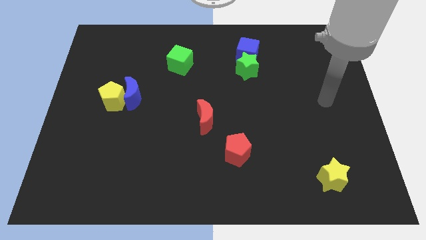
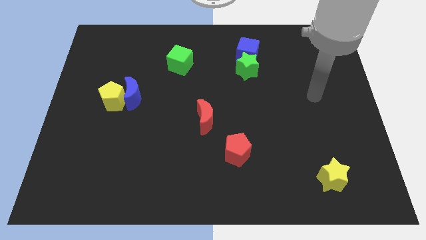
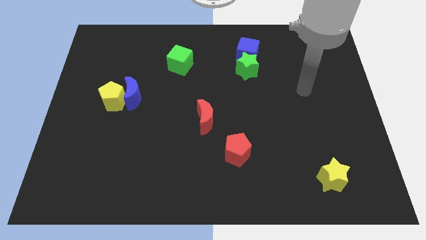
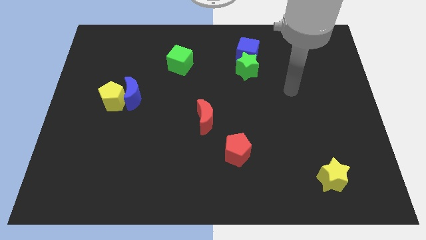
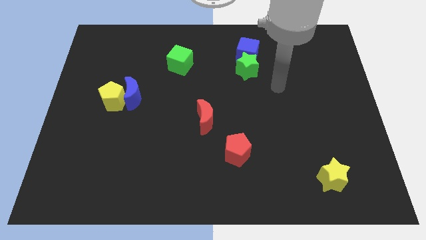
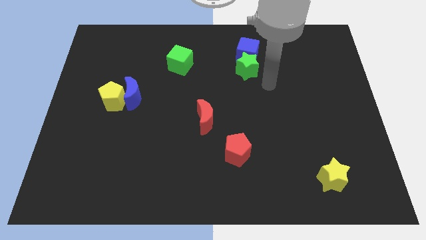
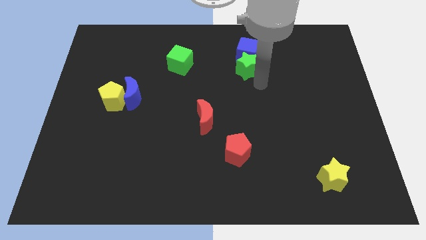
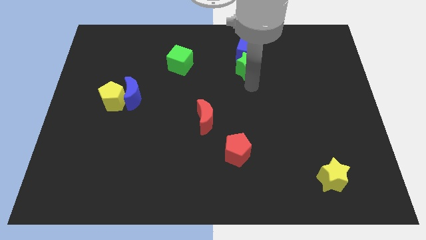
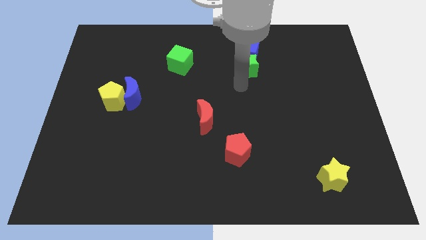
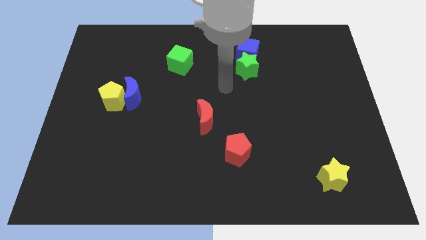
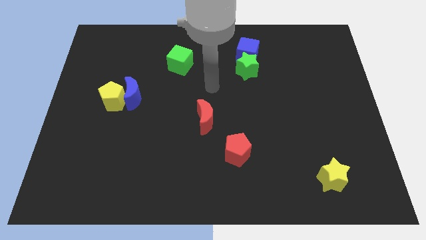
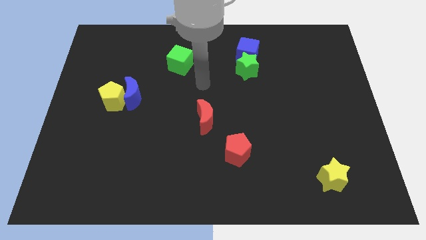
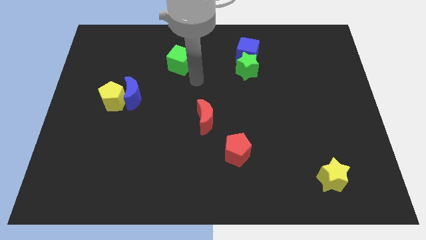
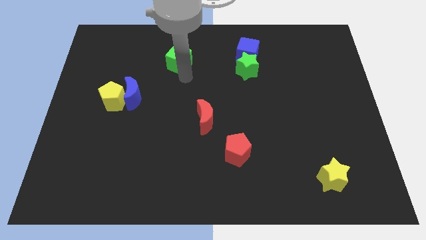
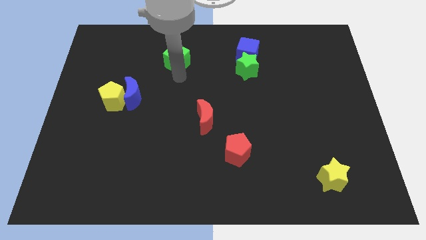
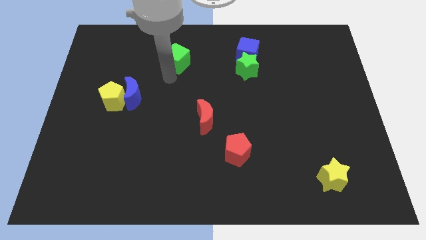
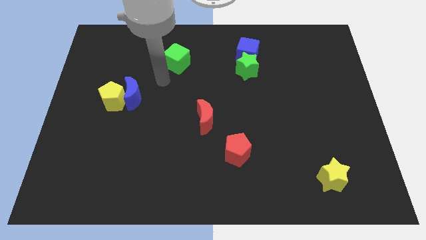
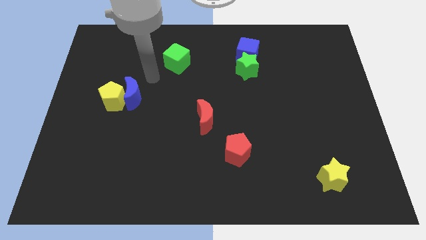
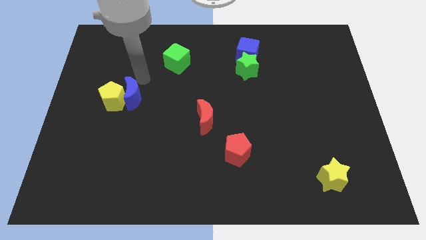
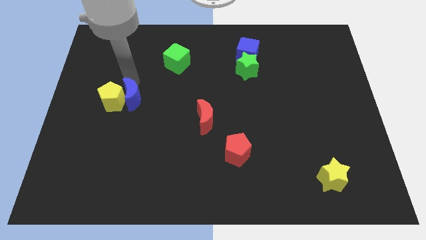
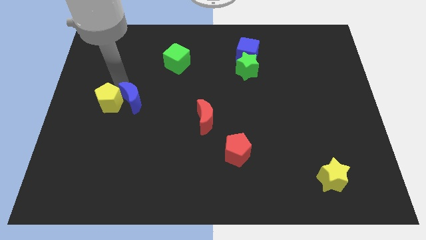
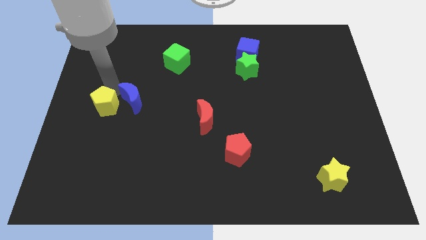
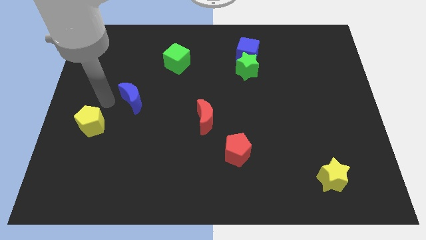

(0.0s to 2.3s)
pull the blue moon apart from the yellow pentagon

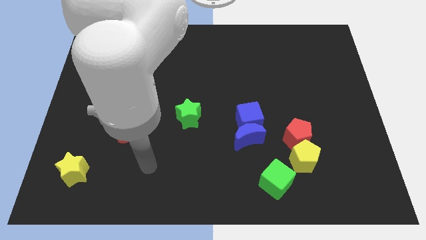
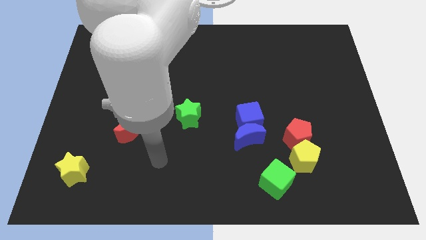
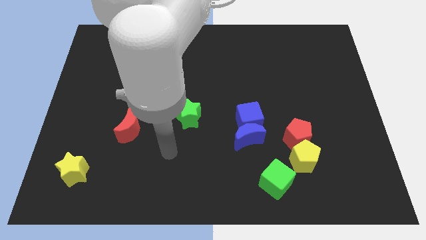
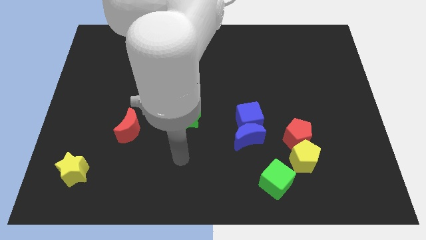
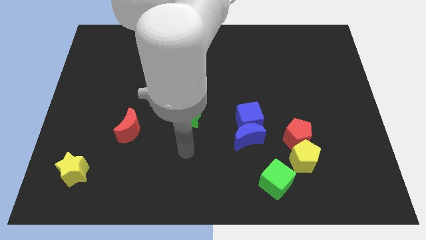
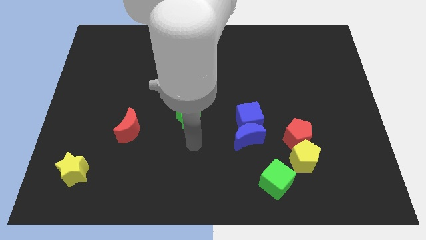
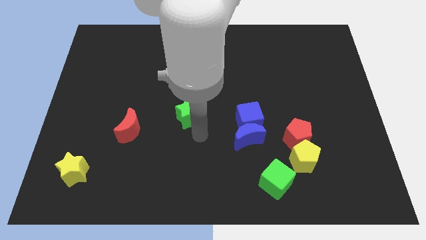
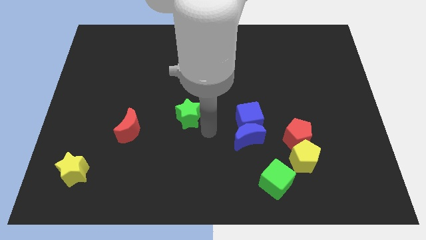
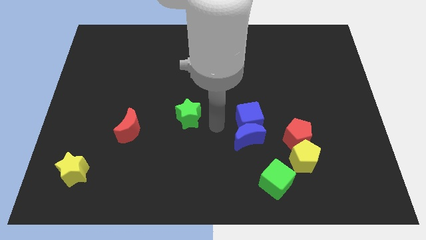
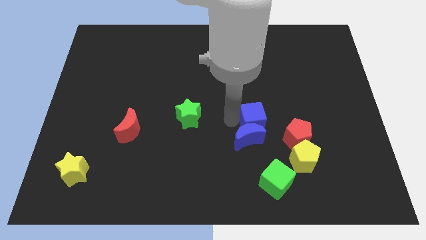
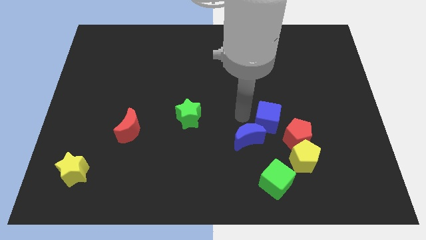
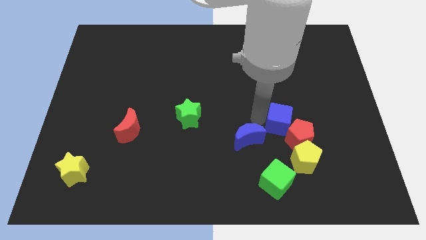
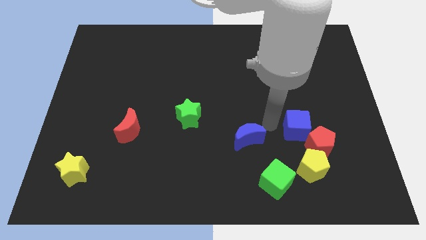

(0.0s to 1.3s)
separate the blue moon from the blue cube

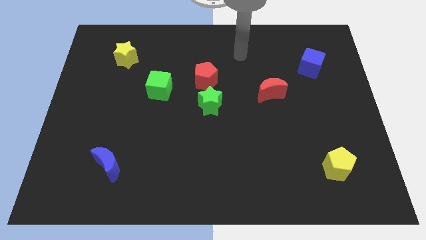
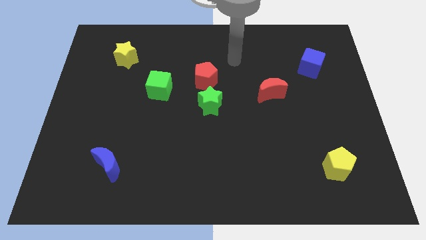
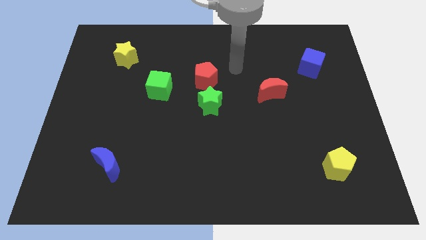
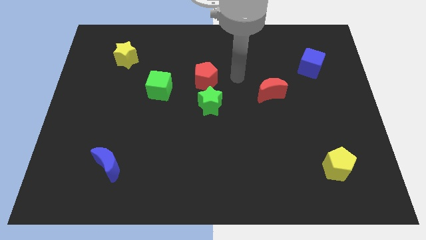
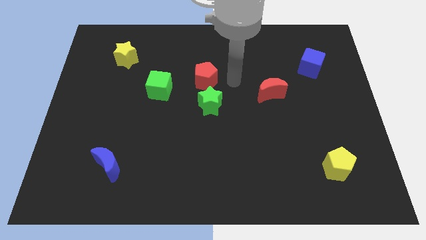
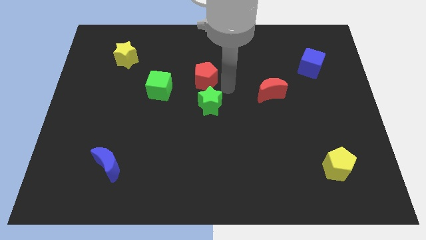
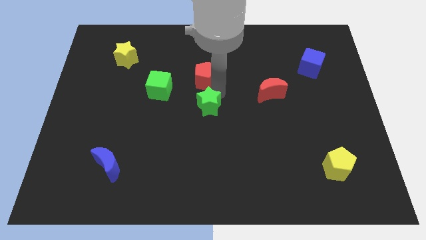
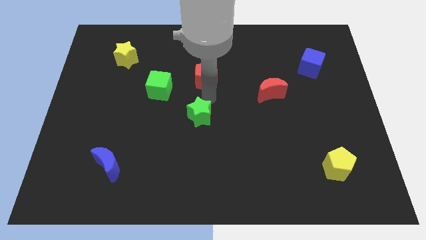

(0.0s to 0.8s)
separate the red pentagon from the green star

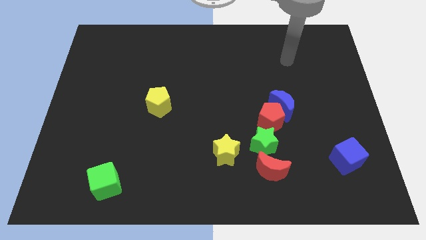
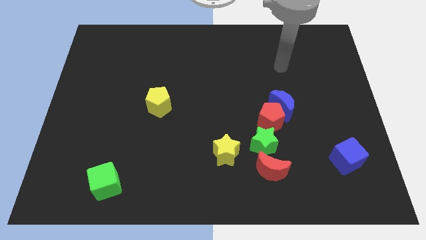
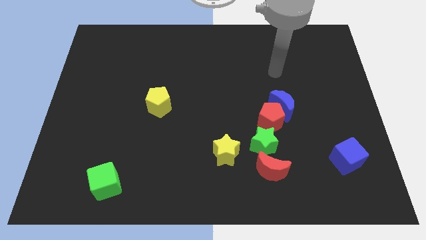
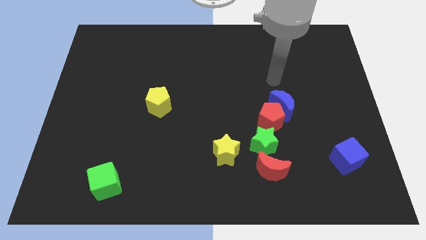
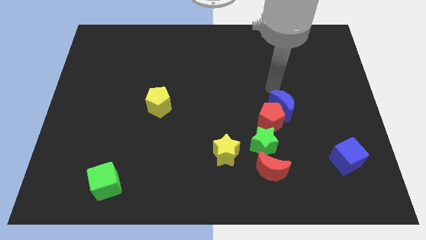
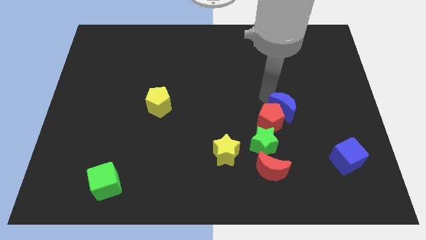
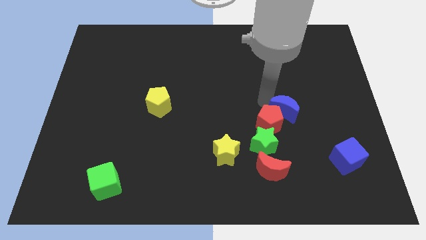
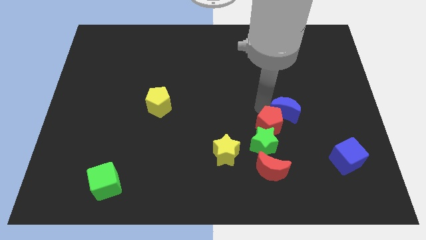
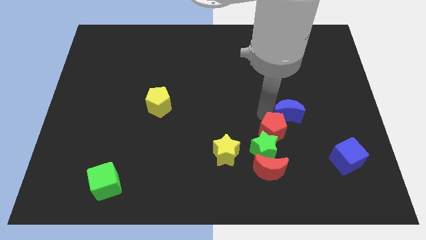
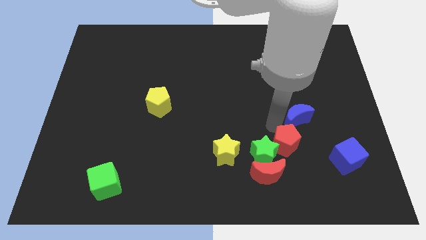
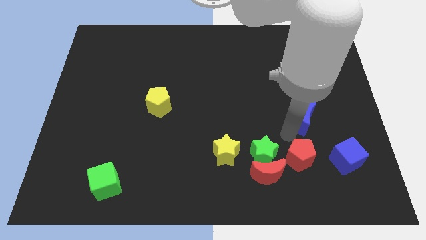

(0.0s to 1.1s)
move the blue moon away from the red pentagon

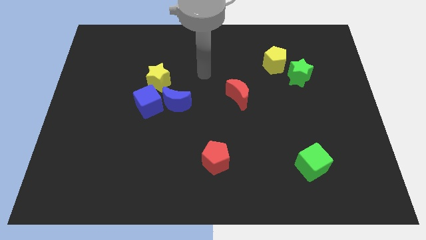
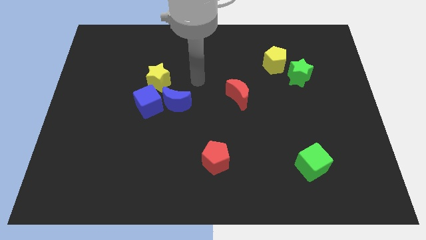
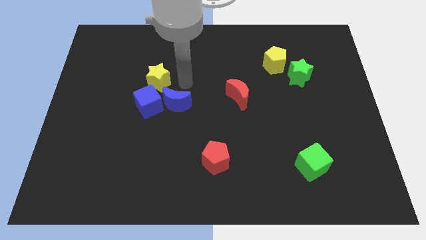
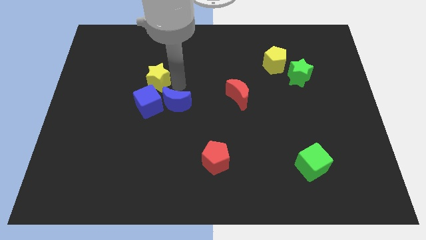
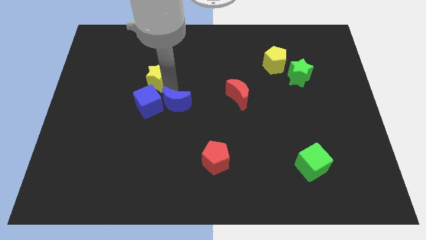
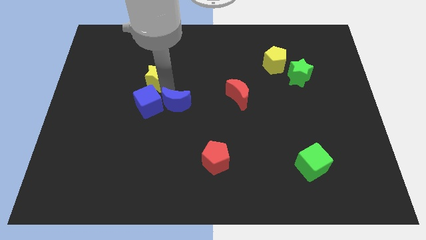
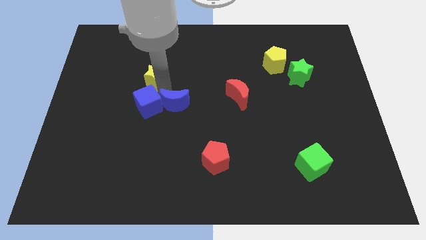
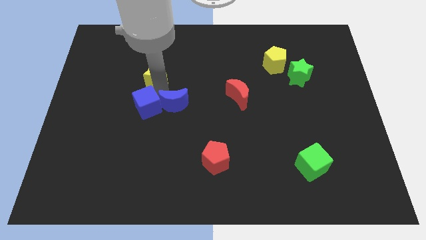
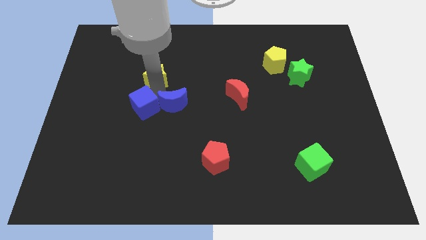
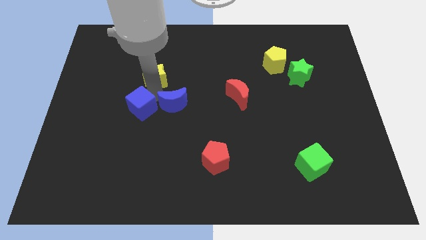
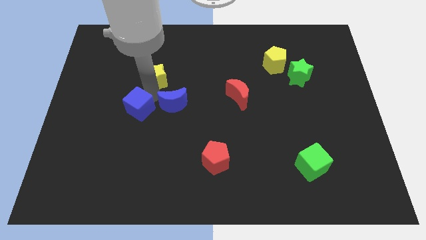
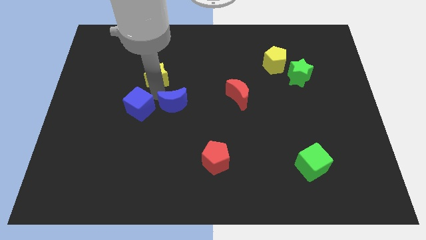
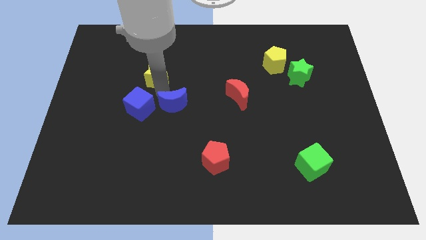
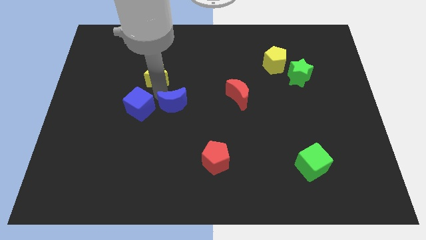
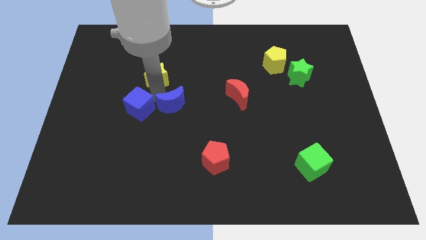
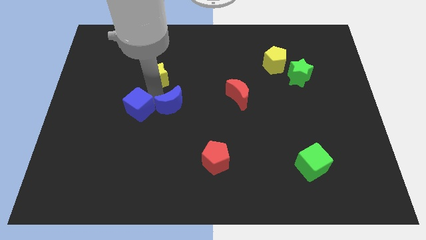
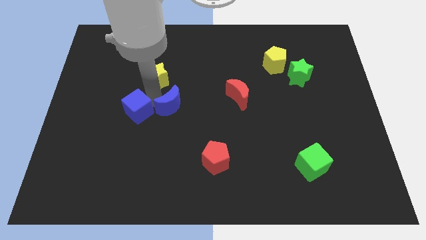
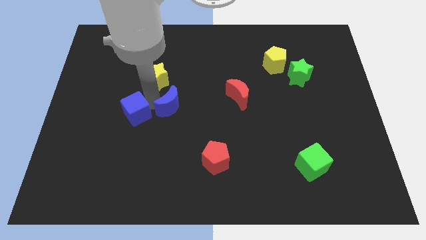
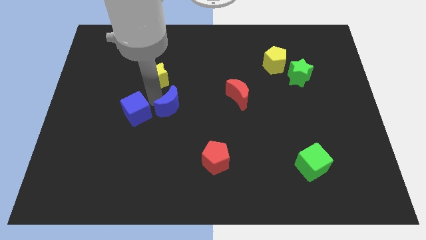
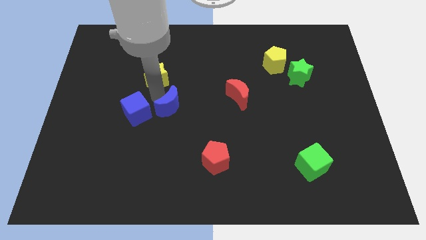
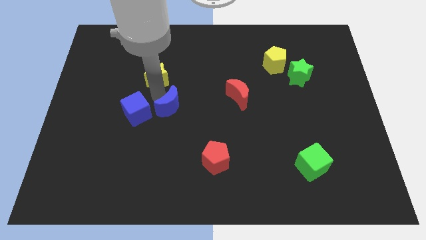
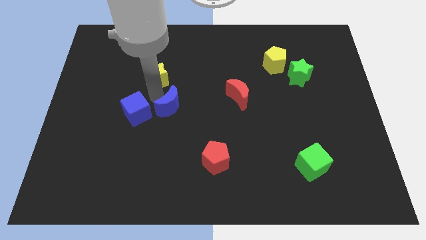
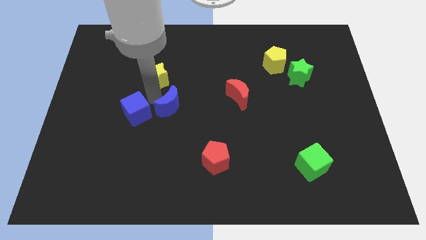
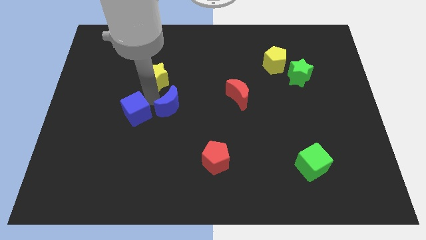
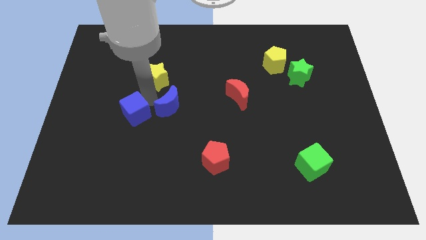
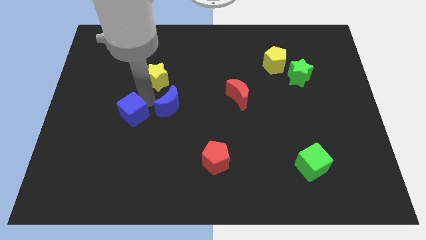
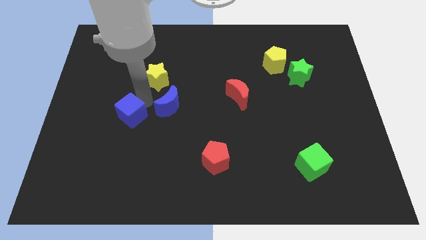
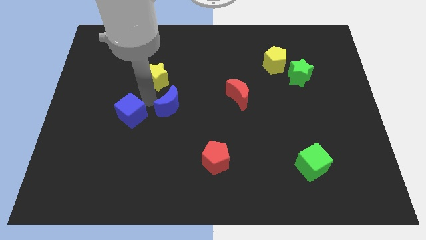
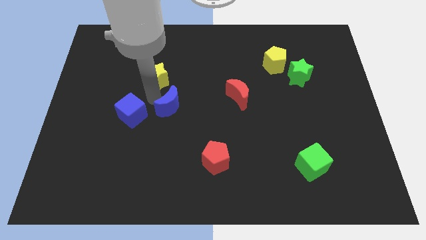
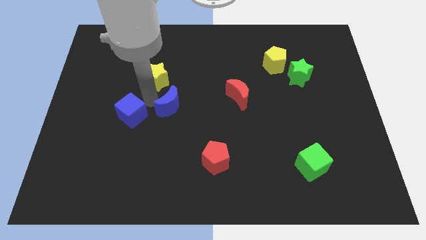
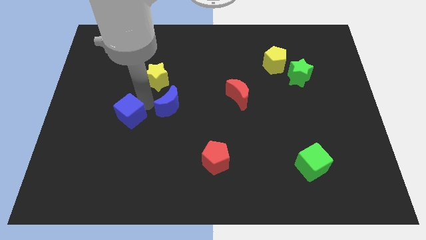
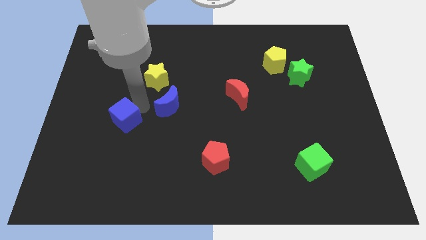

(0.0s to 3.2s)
separate the blue cube from the blue moon and yellow star

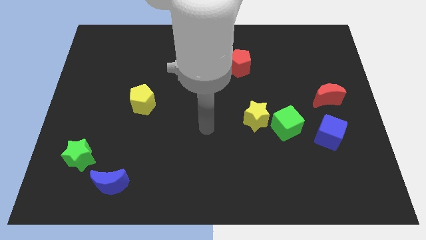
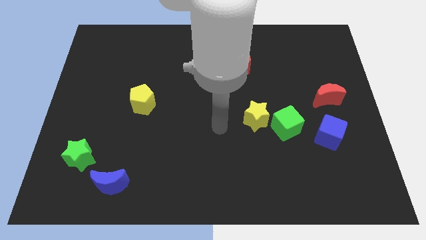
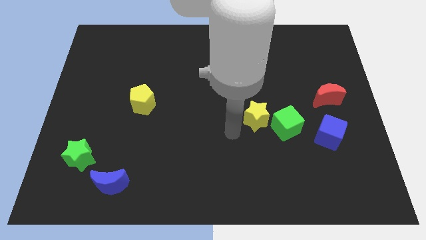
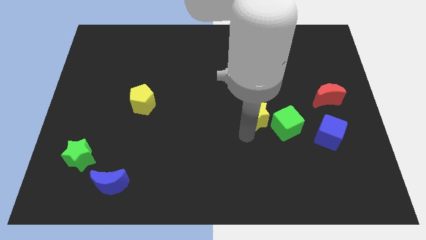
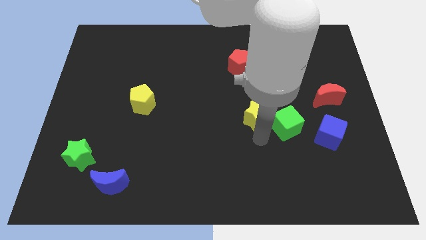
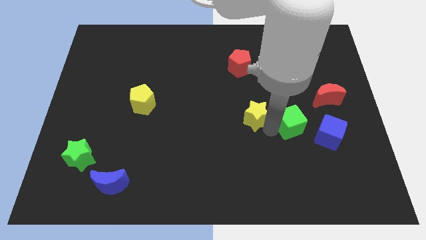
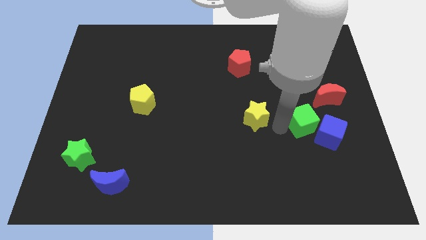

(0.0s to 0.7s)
separate the yellow star from the green cube
